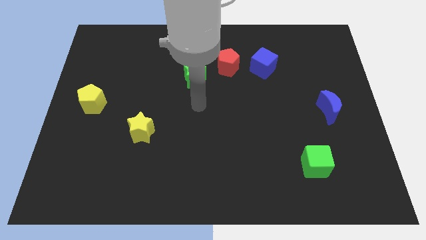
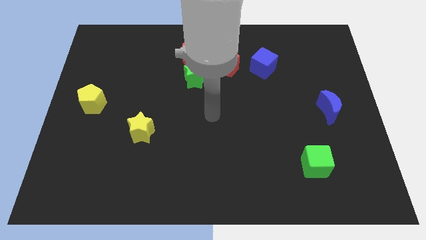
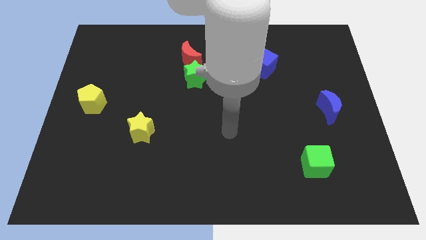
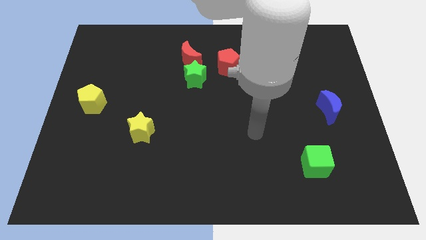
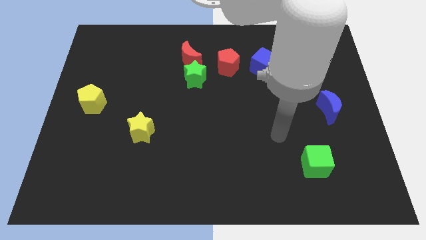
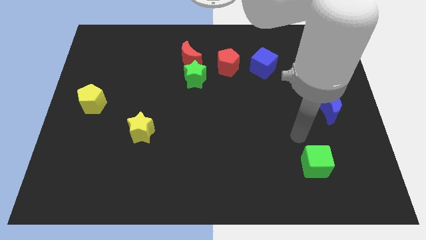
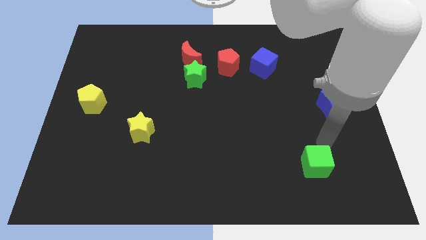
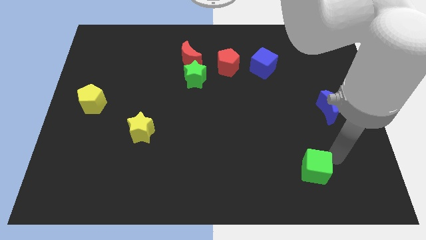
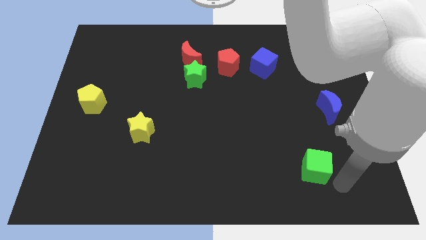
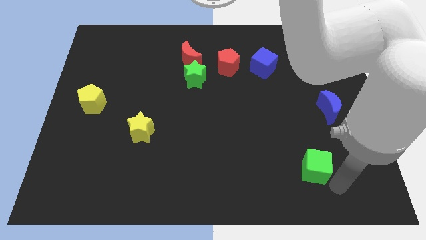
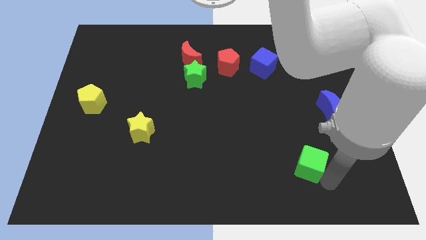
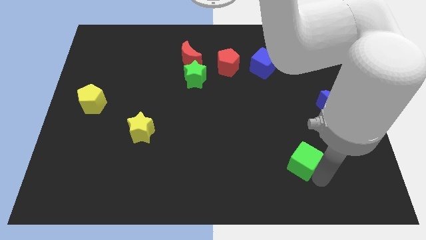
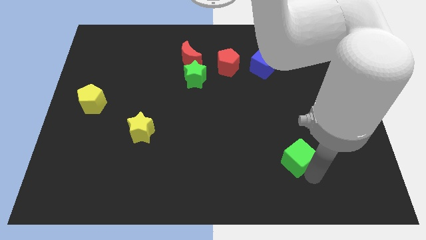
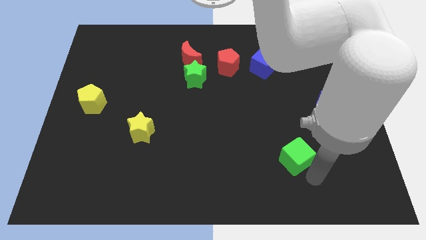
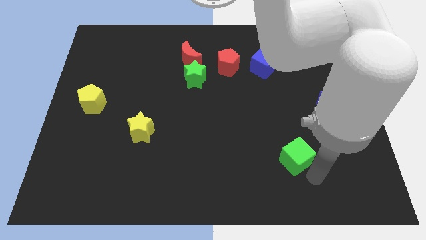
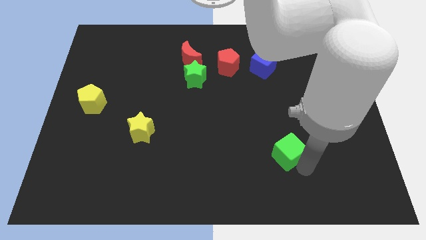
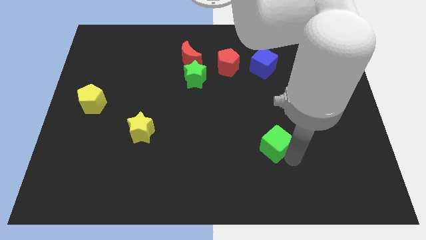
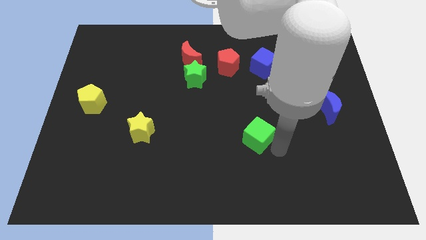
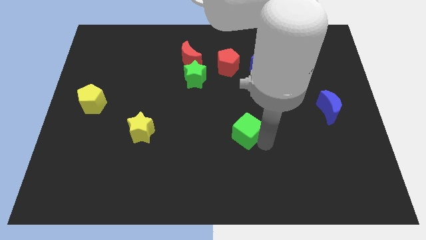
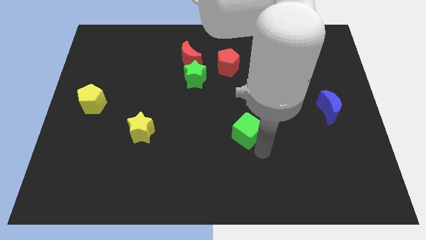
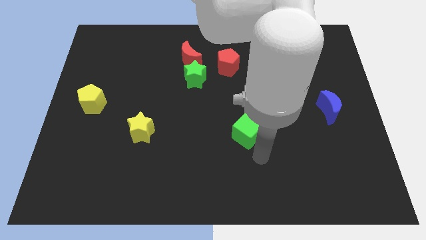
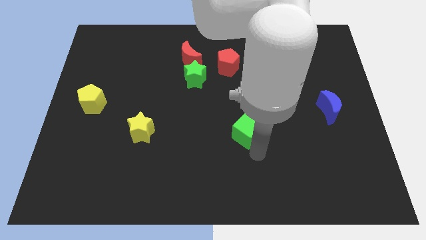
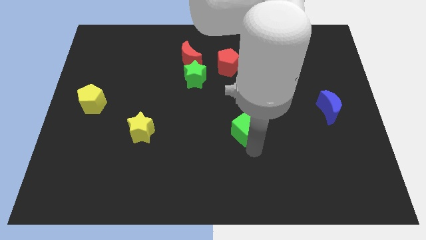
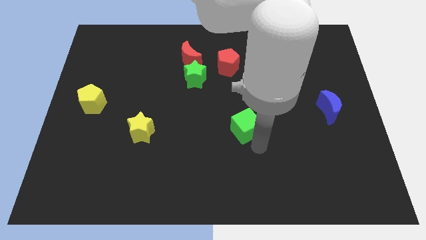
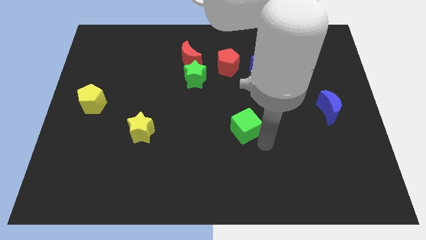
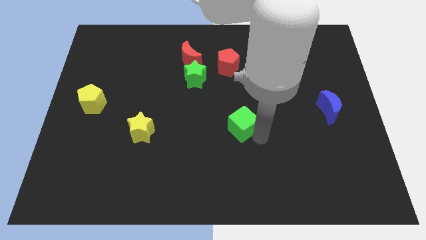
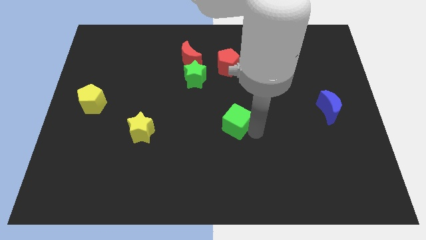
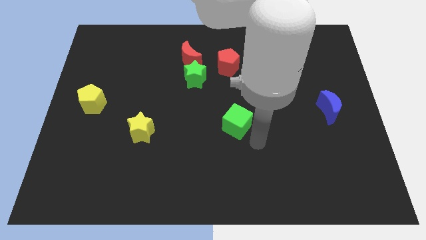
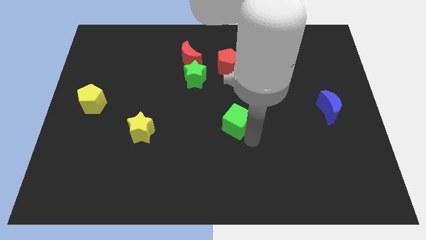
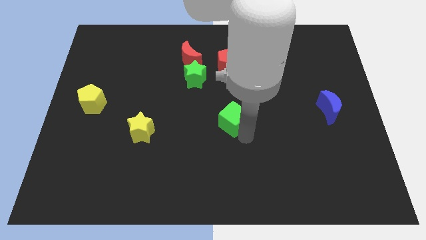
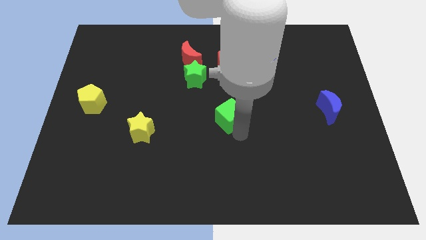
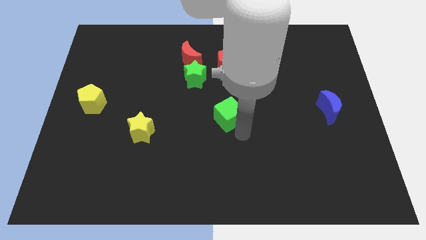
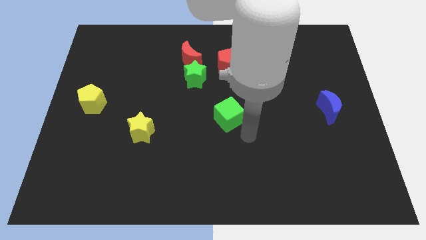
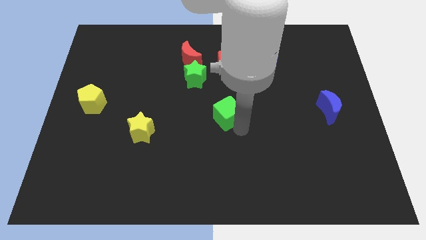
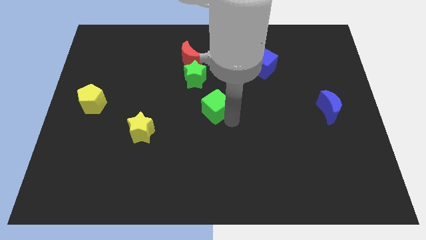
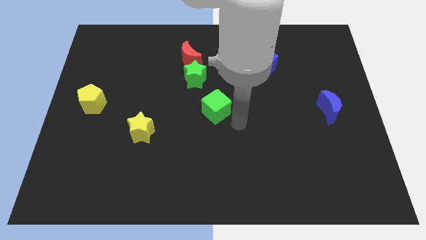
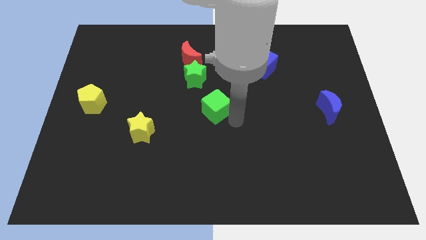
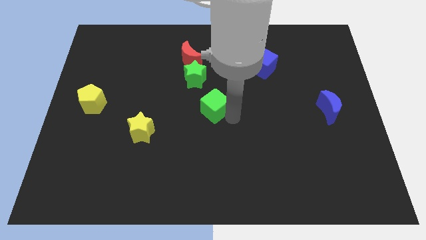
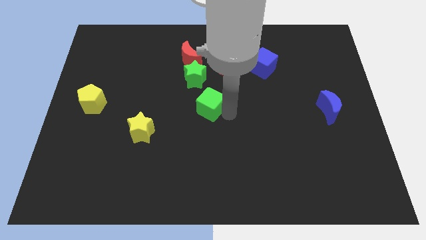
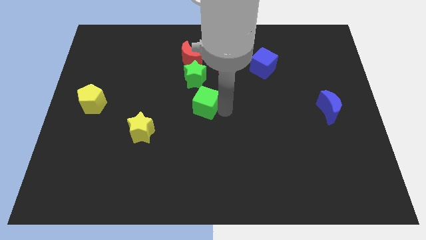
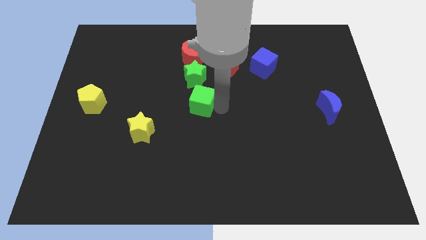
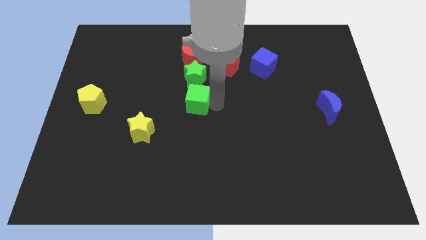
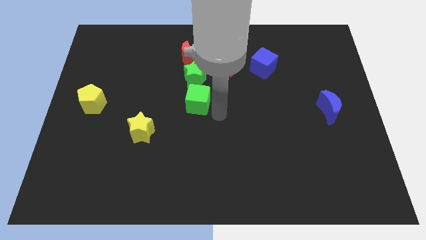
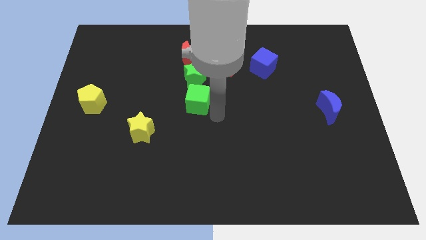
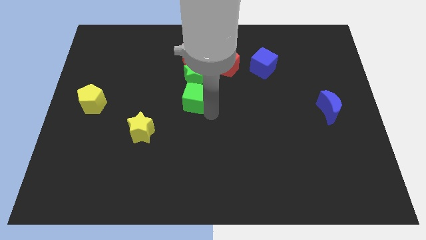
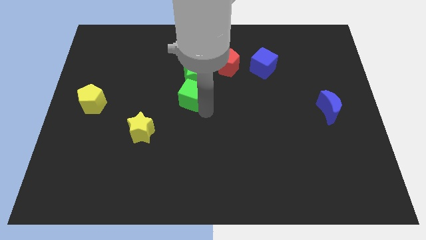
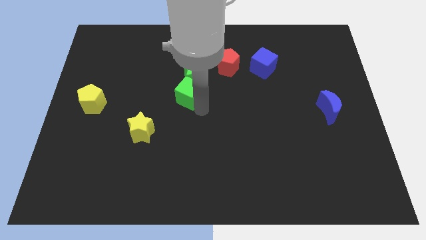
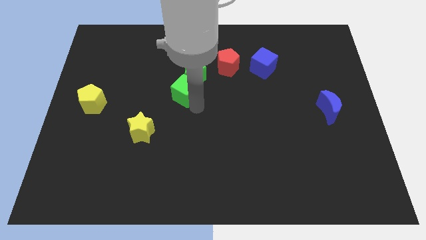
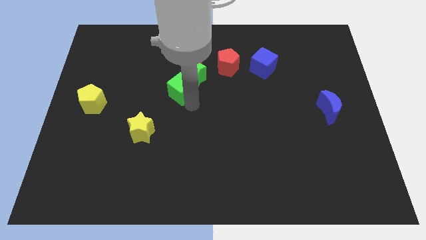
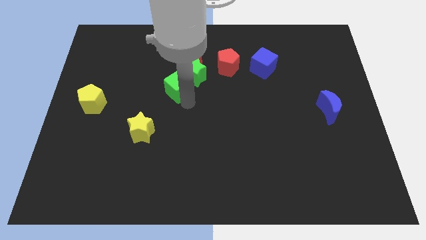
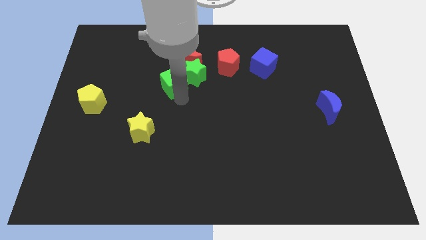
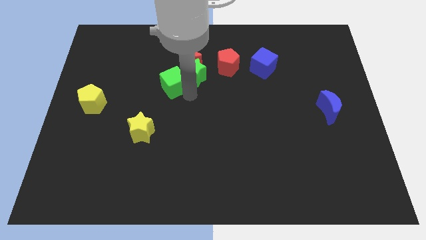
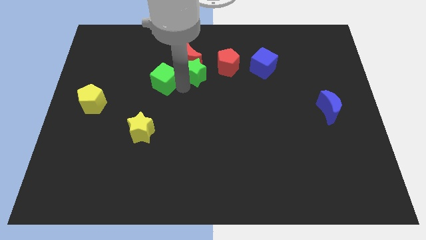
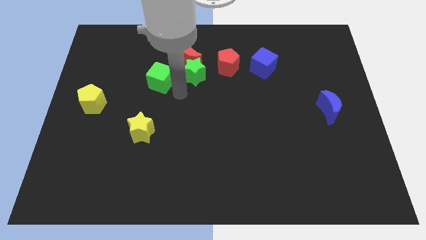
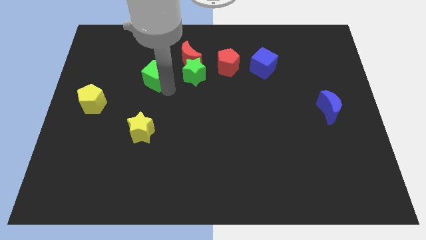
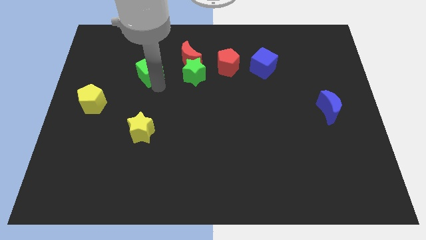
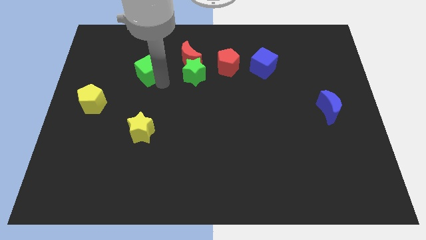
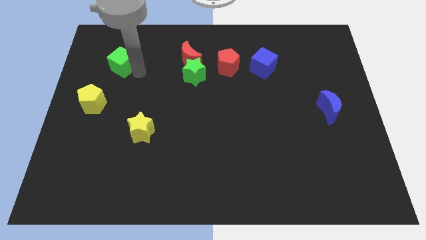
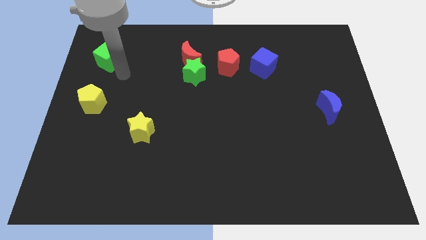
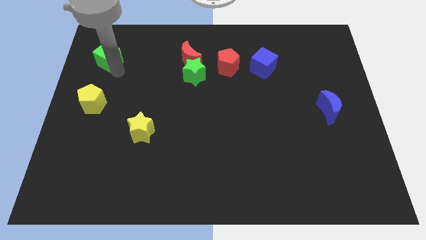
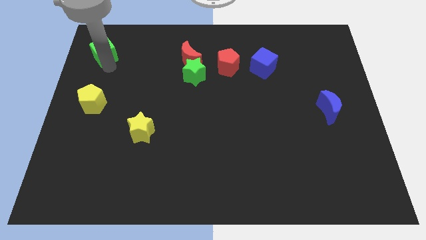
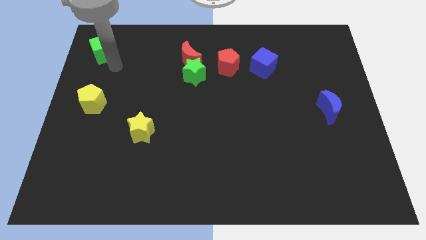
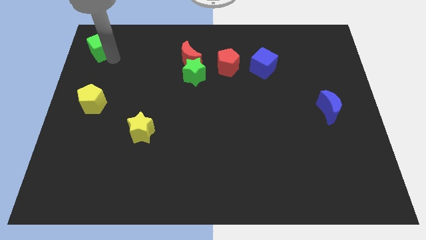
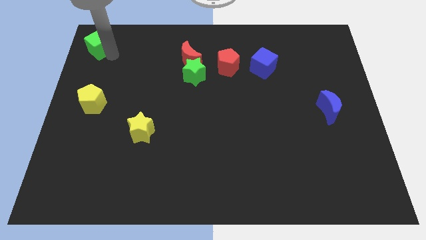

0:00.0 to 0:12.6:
put the green cube to the top left
